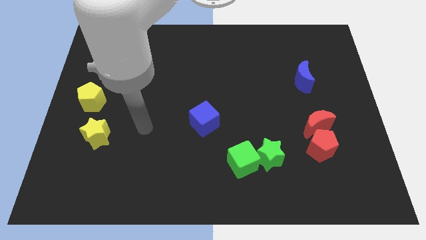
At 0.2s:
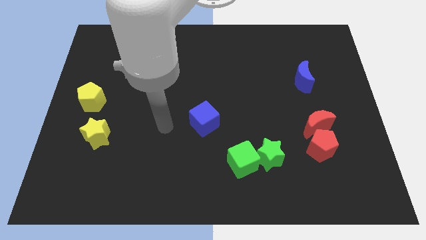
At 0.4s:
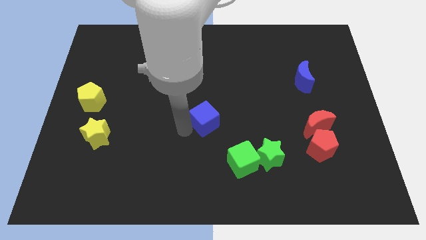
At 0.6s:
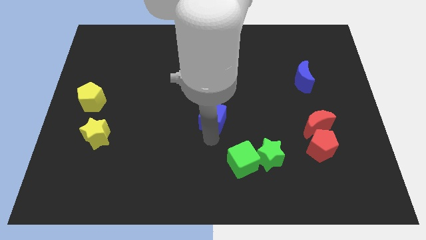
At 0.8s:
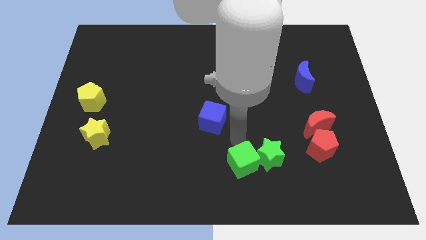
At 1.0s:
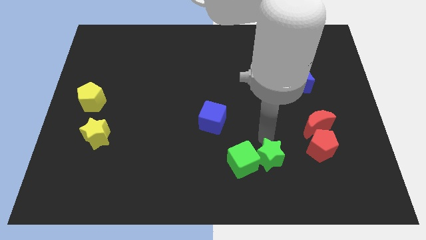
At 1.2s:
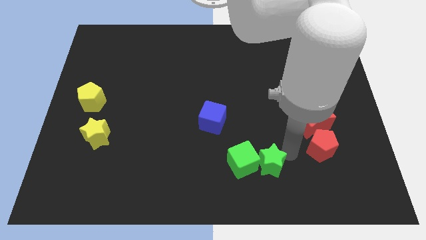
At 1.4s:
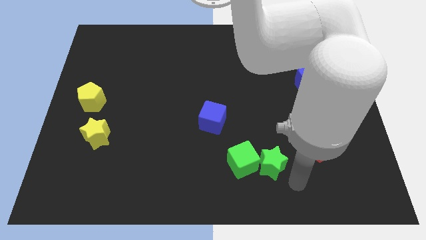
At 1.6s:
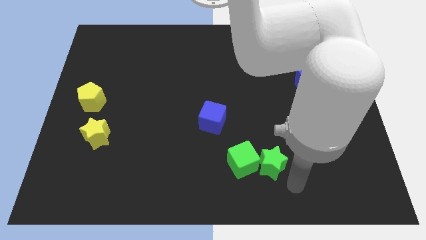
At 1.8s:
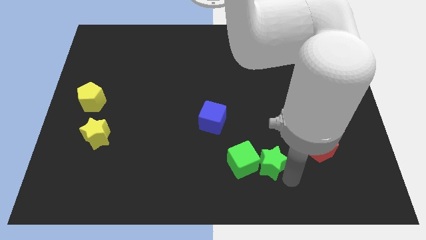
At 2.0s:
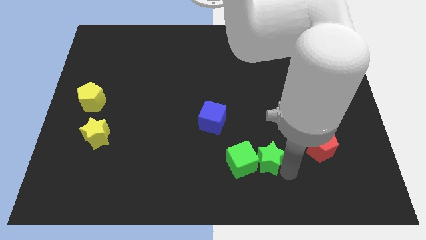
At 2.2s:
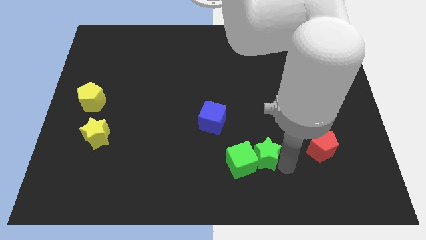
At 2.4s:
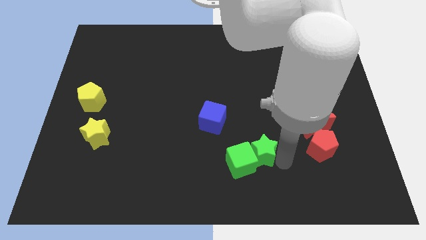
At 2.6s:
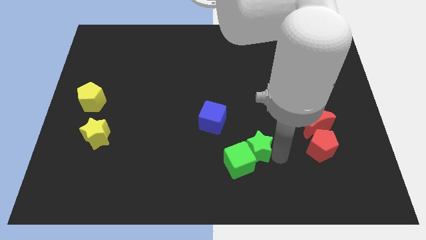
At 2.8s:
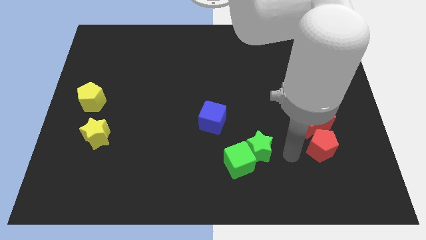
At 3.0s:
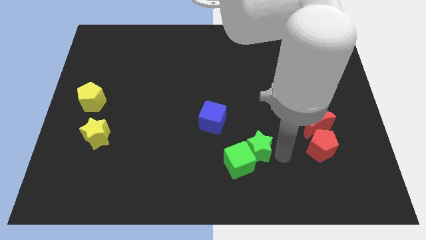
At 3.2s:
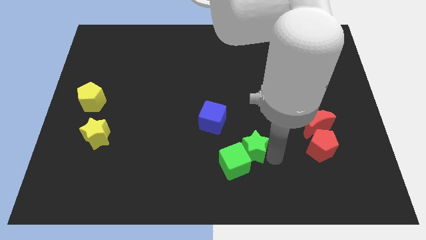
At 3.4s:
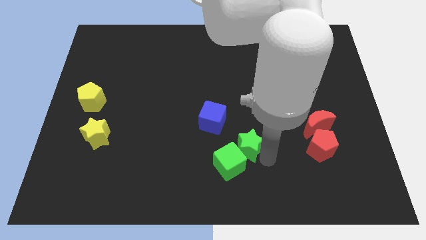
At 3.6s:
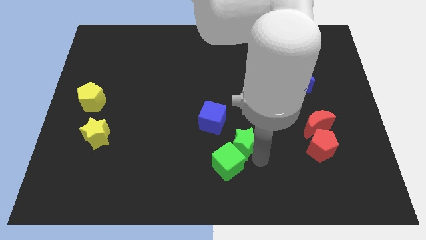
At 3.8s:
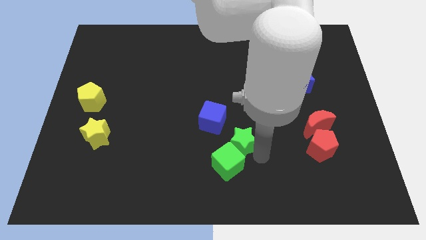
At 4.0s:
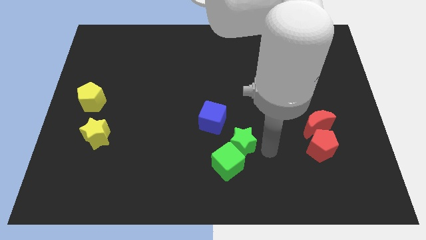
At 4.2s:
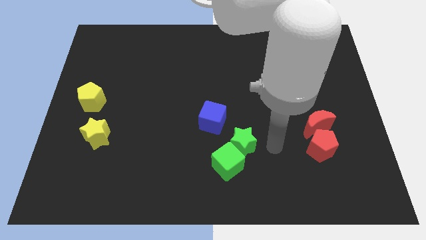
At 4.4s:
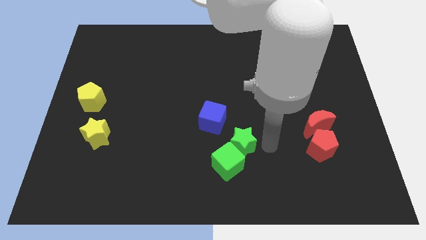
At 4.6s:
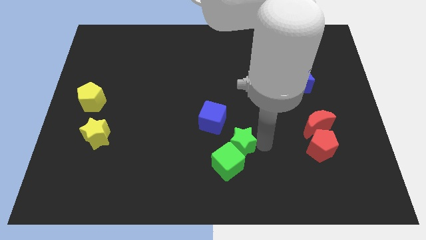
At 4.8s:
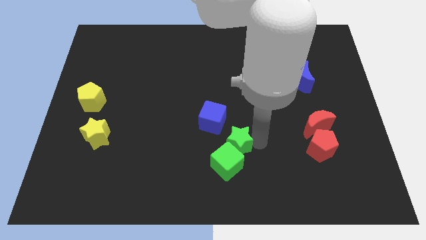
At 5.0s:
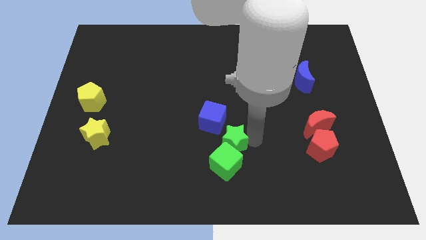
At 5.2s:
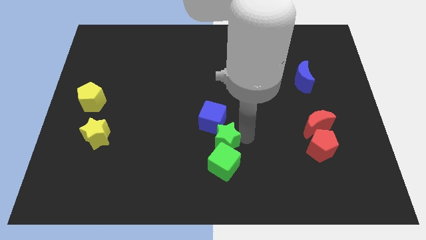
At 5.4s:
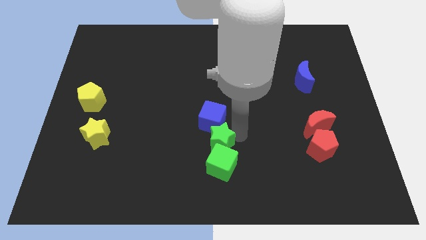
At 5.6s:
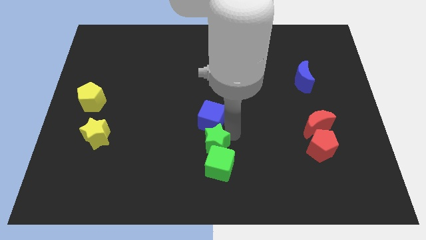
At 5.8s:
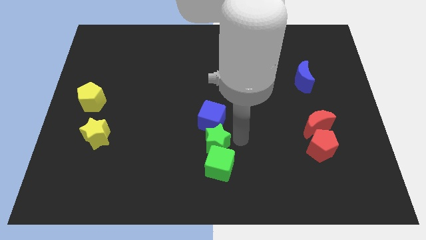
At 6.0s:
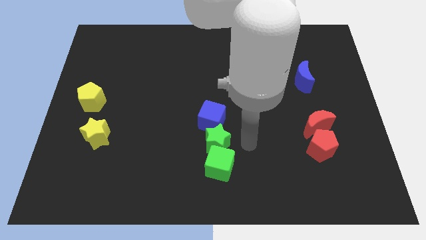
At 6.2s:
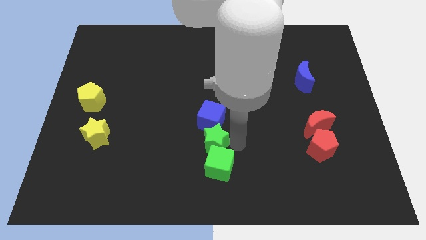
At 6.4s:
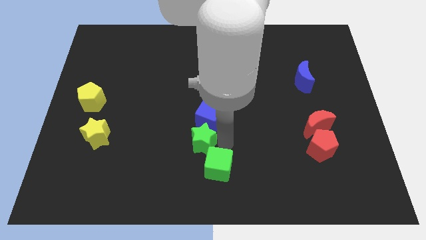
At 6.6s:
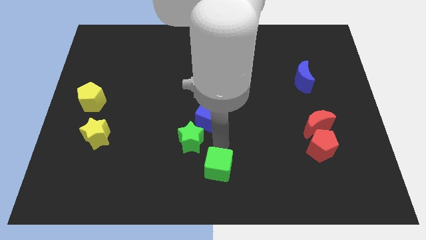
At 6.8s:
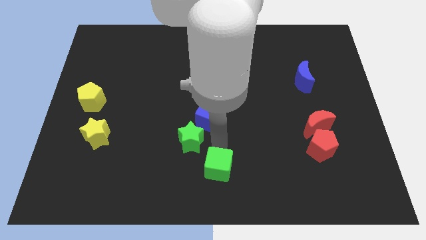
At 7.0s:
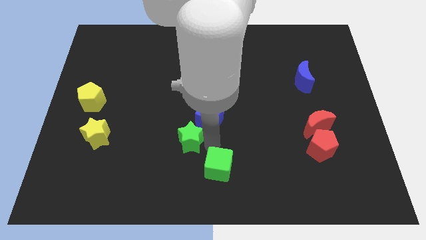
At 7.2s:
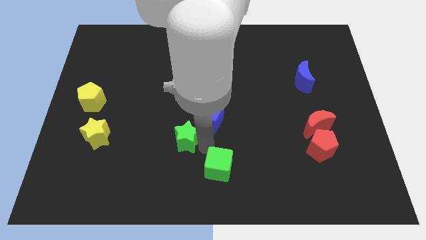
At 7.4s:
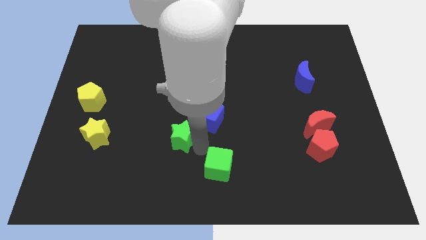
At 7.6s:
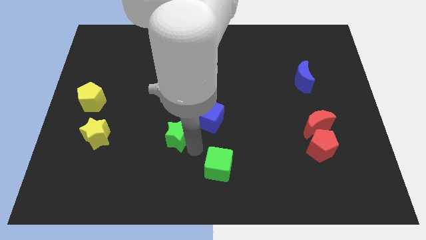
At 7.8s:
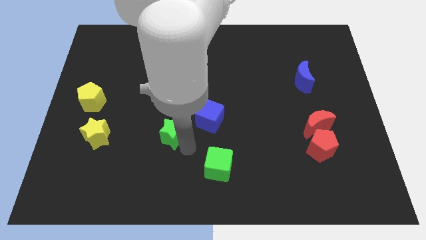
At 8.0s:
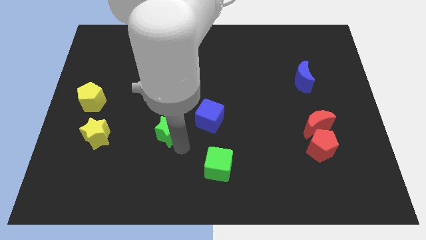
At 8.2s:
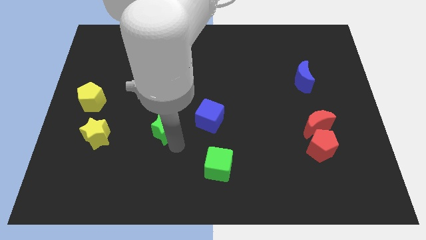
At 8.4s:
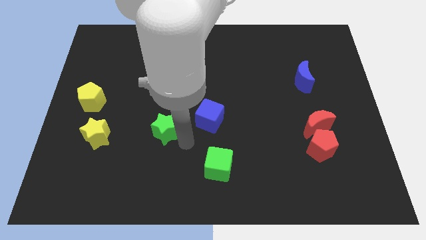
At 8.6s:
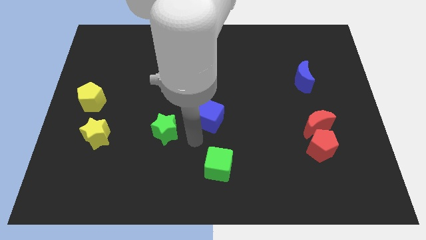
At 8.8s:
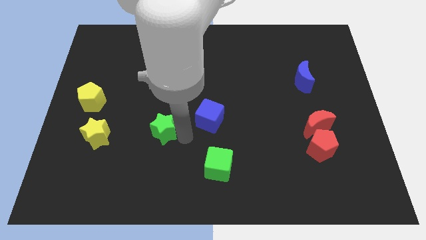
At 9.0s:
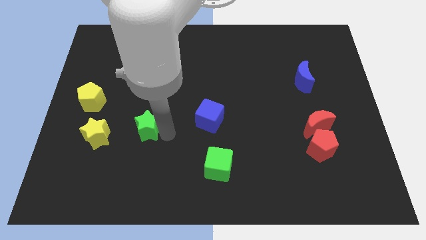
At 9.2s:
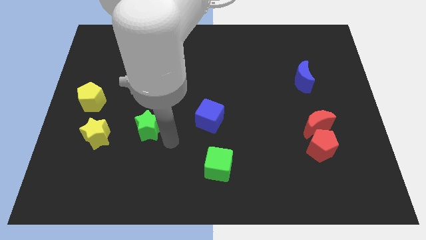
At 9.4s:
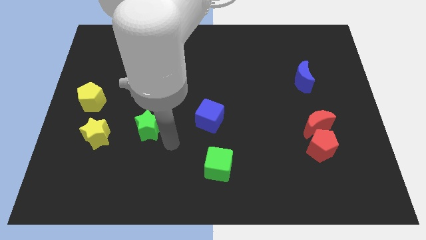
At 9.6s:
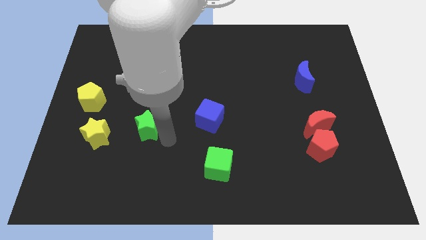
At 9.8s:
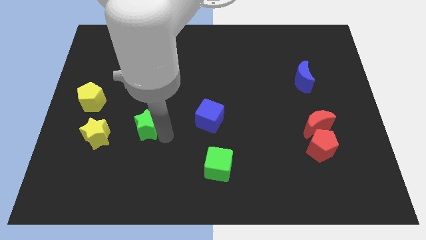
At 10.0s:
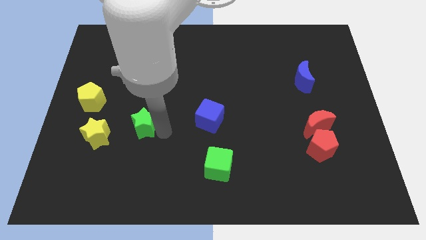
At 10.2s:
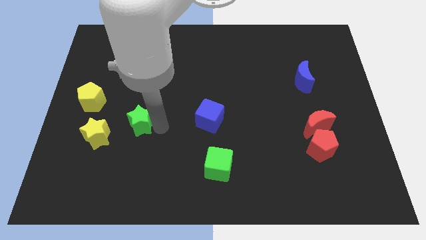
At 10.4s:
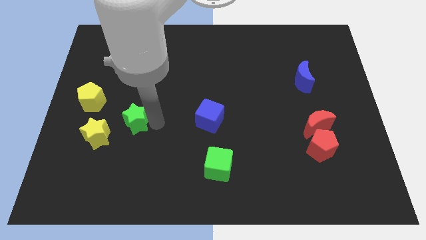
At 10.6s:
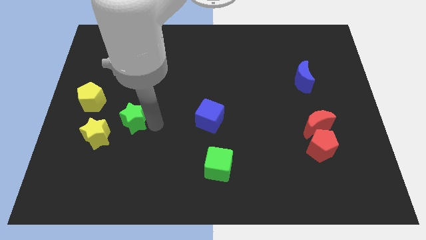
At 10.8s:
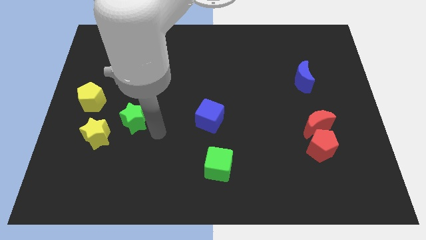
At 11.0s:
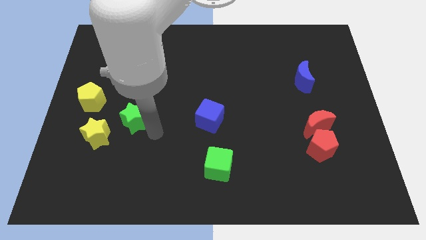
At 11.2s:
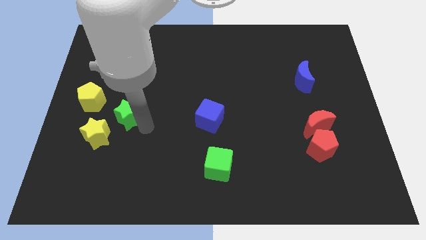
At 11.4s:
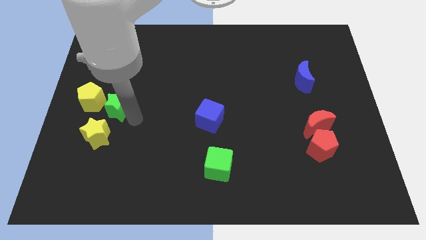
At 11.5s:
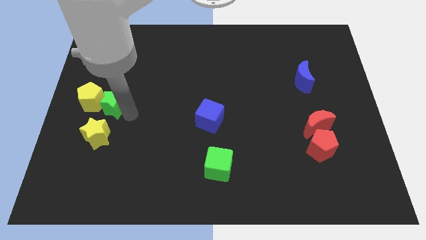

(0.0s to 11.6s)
put the green star towards the yellow pentagon

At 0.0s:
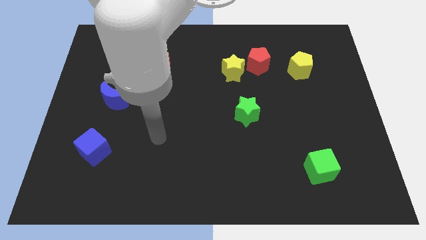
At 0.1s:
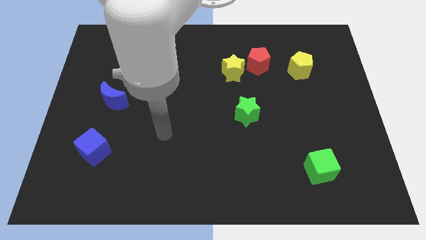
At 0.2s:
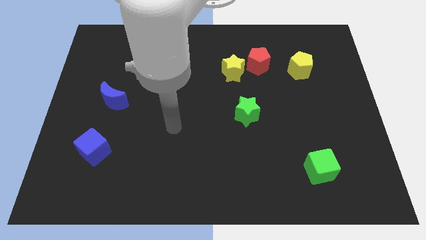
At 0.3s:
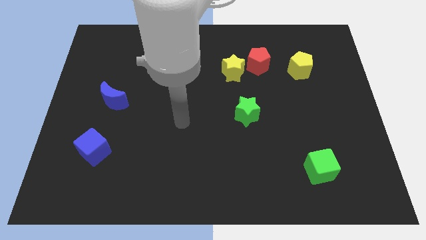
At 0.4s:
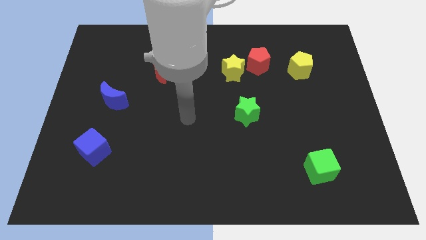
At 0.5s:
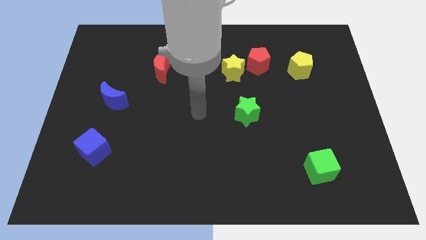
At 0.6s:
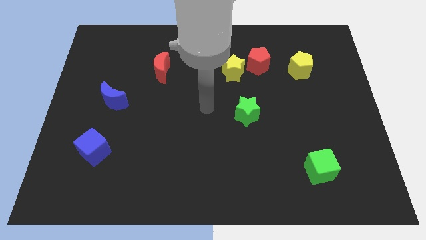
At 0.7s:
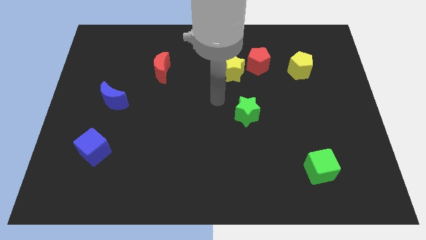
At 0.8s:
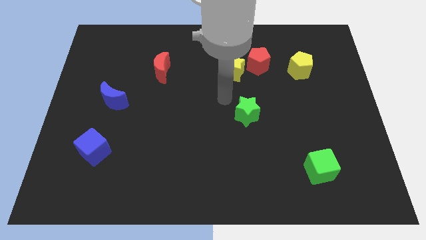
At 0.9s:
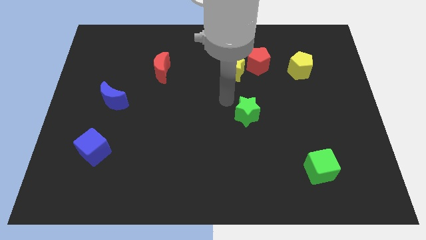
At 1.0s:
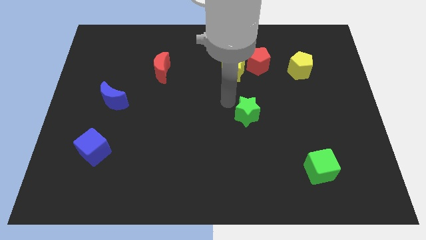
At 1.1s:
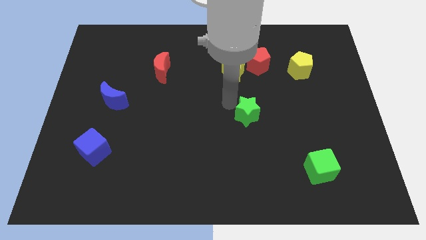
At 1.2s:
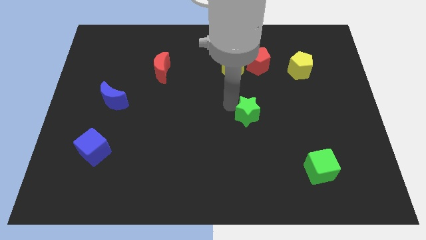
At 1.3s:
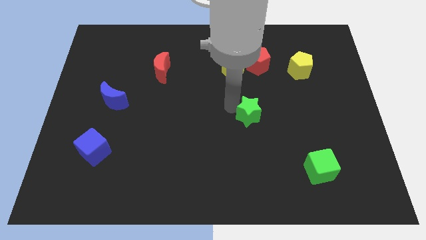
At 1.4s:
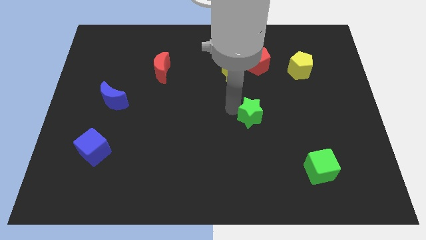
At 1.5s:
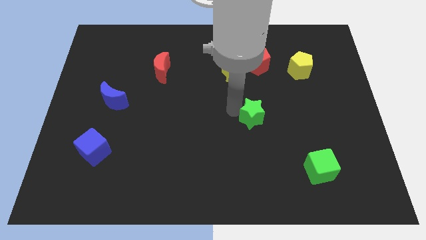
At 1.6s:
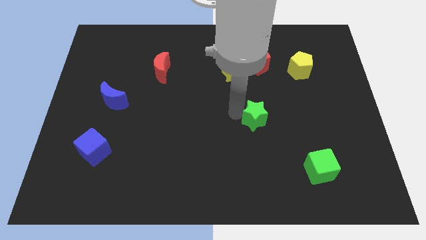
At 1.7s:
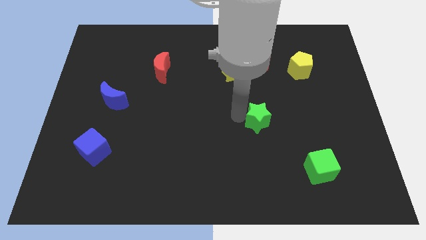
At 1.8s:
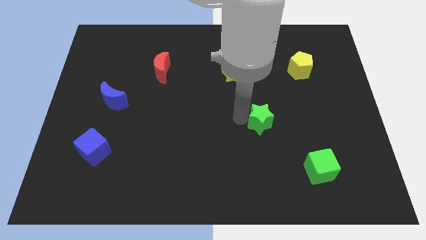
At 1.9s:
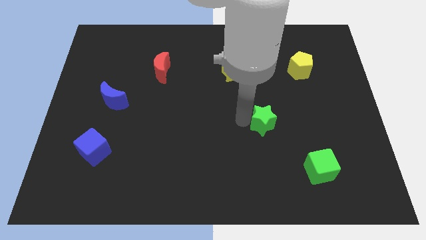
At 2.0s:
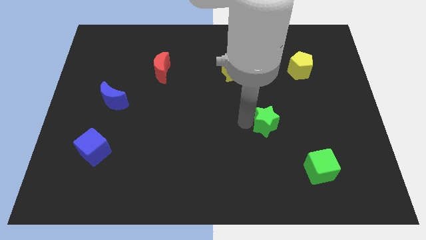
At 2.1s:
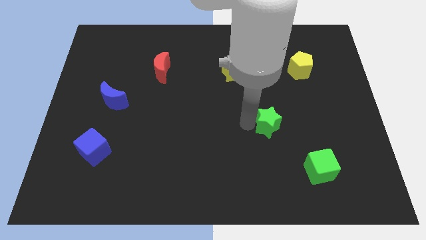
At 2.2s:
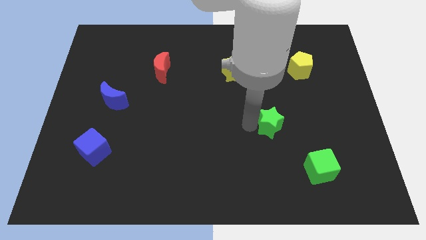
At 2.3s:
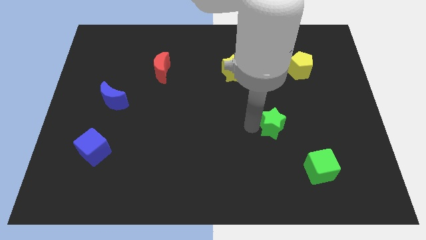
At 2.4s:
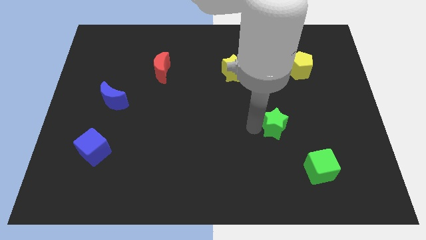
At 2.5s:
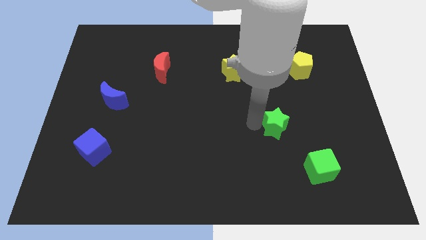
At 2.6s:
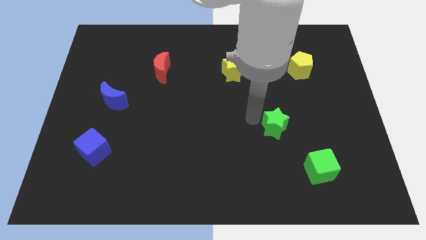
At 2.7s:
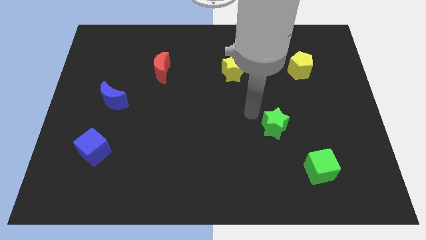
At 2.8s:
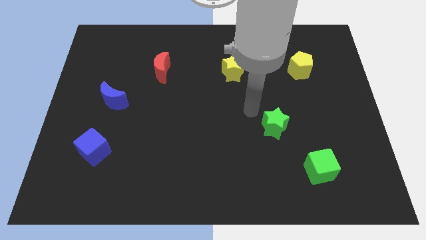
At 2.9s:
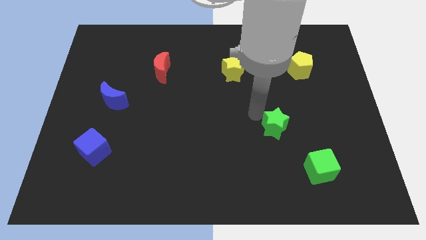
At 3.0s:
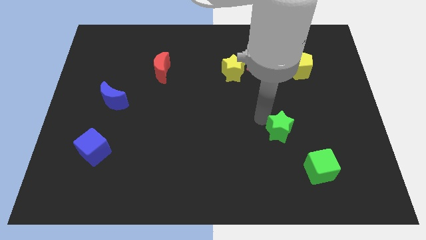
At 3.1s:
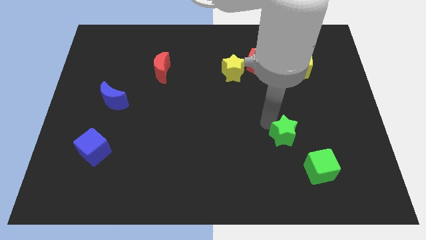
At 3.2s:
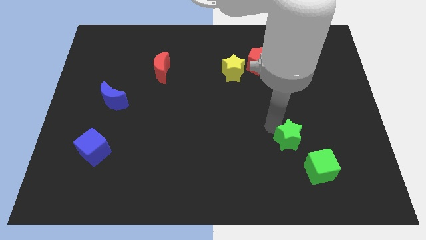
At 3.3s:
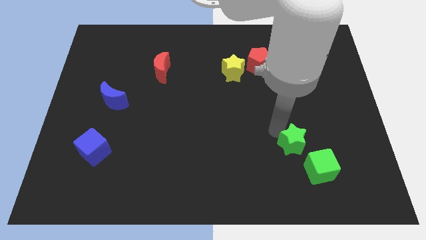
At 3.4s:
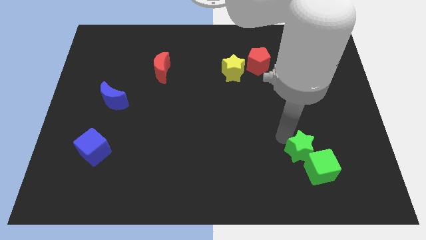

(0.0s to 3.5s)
push the green star towards the green cube
